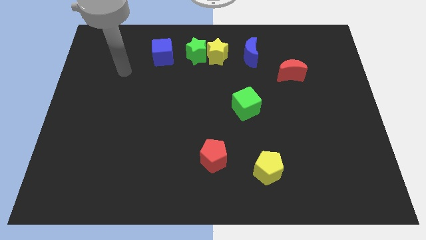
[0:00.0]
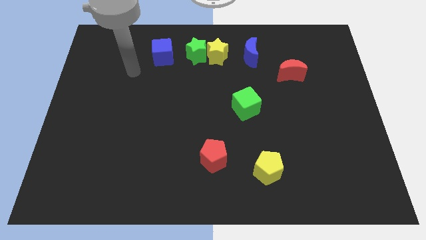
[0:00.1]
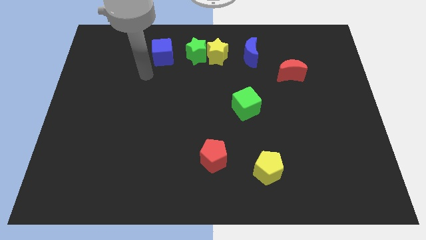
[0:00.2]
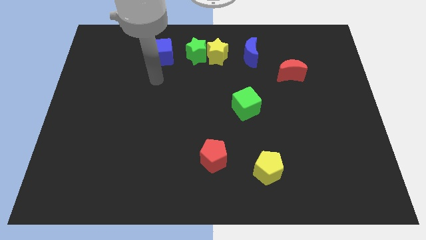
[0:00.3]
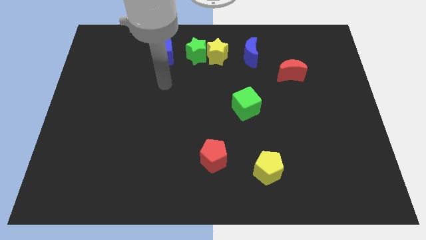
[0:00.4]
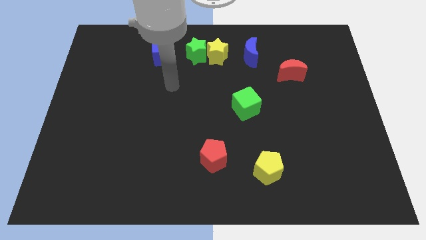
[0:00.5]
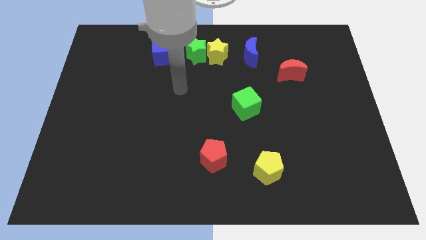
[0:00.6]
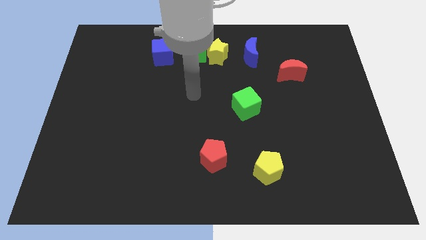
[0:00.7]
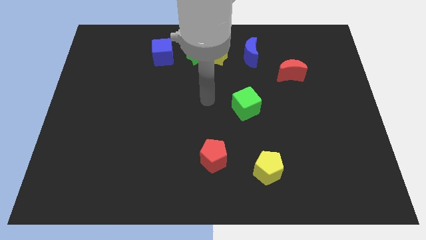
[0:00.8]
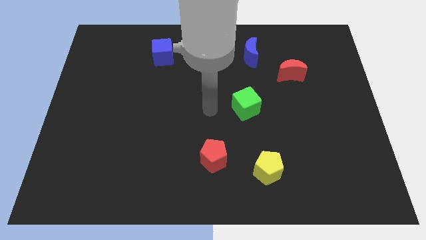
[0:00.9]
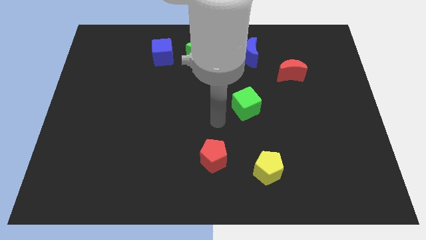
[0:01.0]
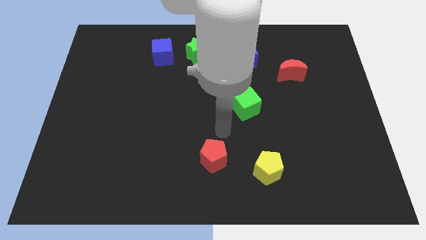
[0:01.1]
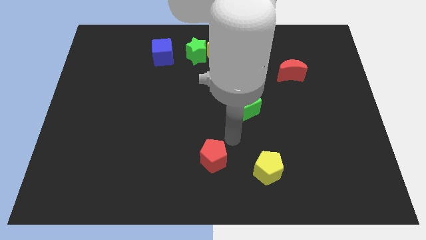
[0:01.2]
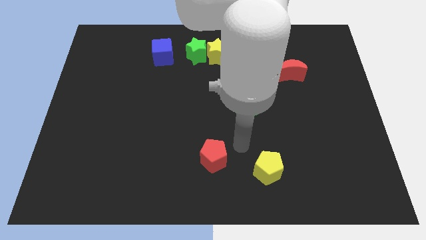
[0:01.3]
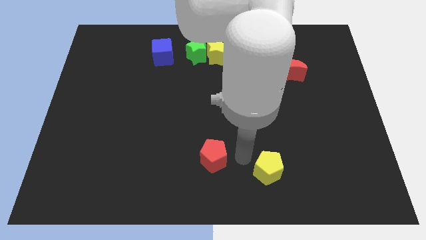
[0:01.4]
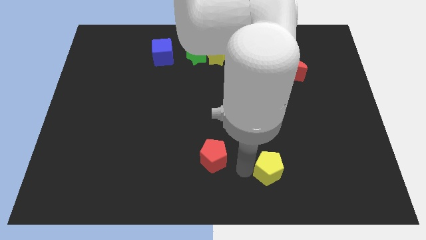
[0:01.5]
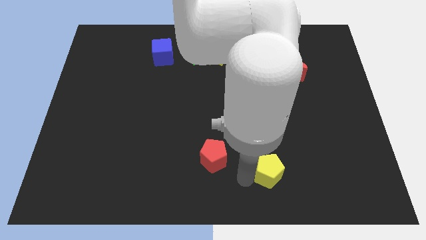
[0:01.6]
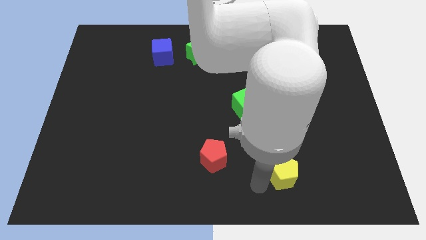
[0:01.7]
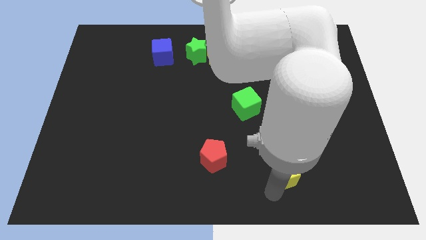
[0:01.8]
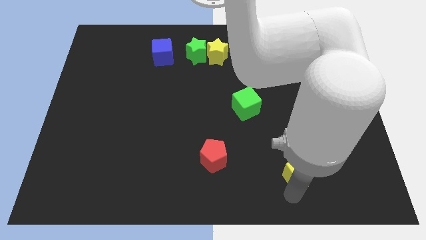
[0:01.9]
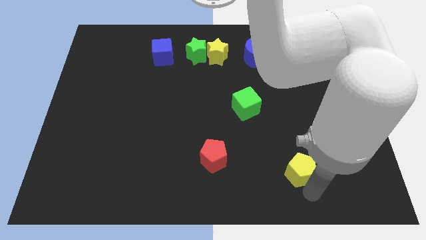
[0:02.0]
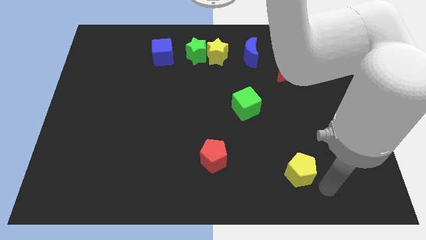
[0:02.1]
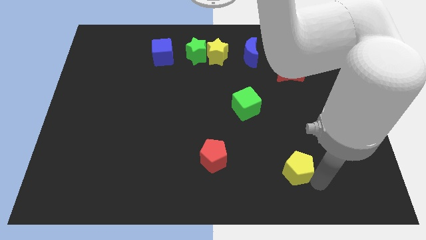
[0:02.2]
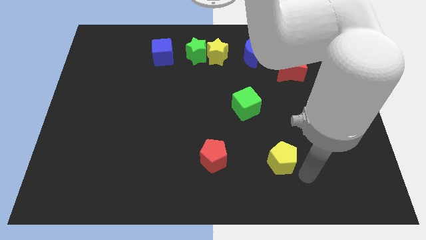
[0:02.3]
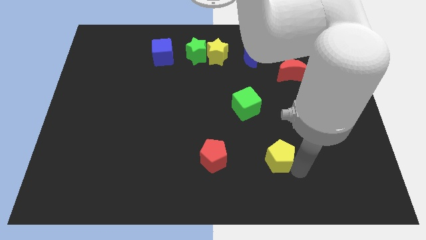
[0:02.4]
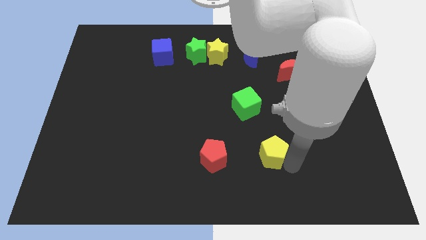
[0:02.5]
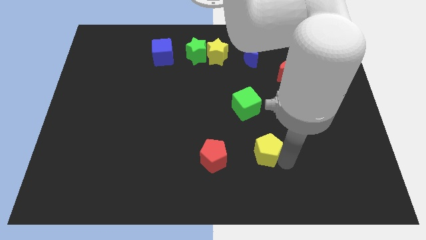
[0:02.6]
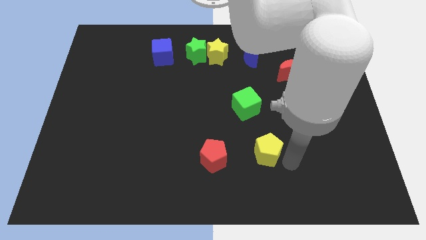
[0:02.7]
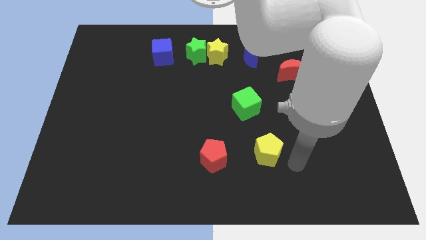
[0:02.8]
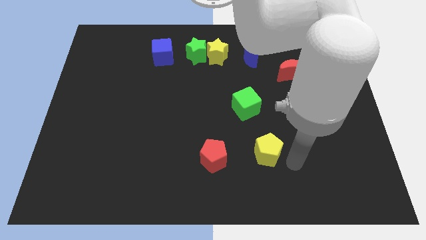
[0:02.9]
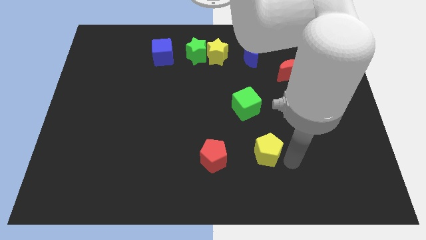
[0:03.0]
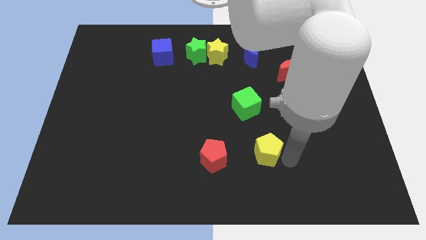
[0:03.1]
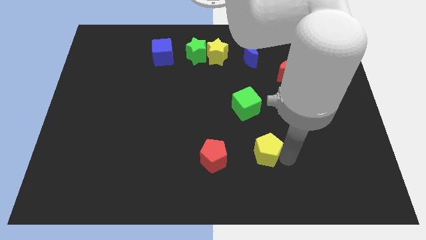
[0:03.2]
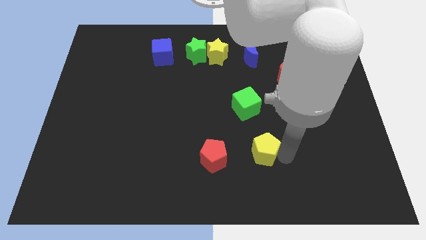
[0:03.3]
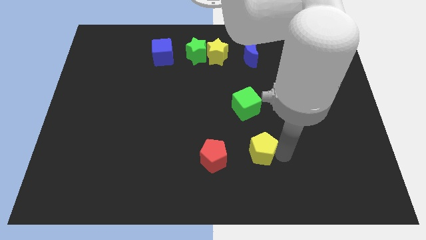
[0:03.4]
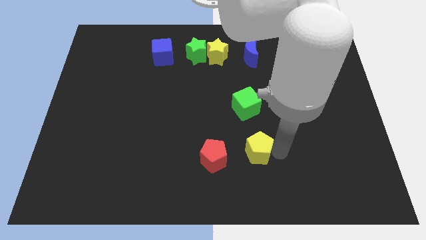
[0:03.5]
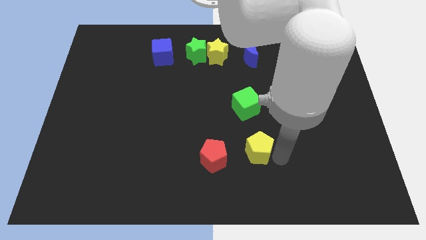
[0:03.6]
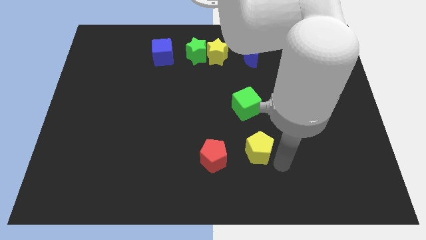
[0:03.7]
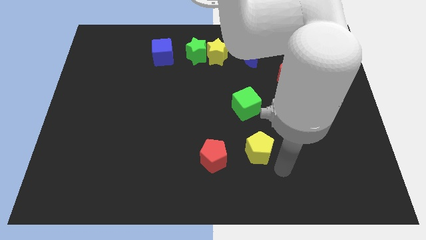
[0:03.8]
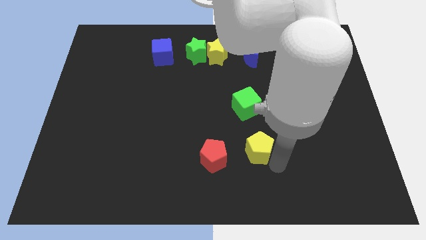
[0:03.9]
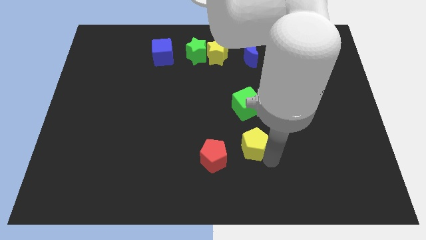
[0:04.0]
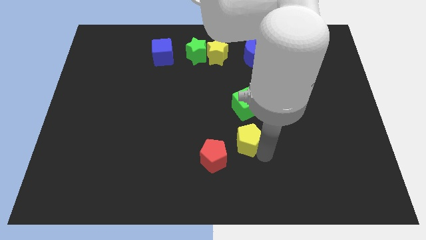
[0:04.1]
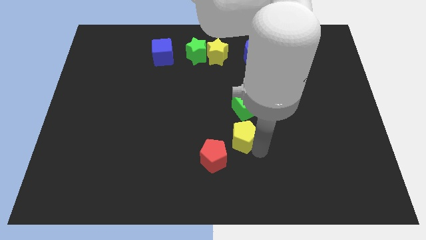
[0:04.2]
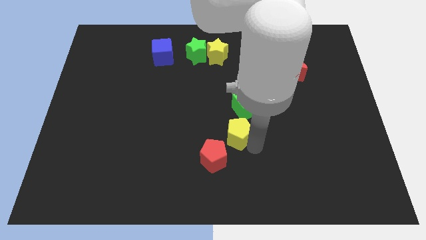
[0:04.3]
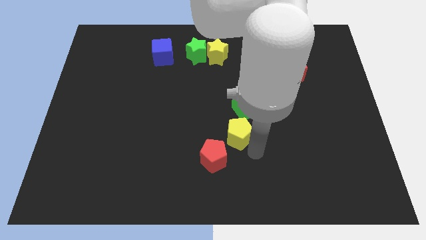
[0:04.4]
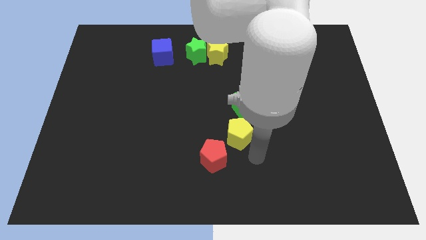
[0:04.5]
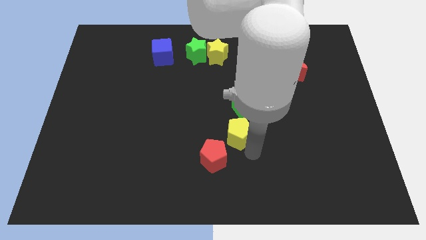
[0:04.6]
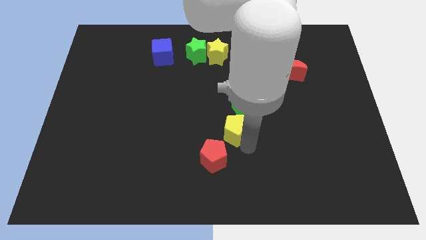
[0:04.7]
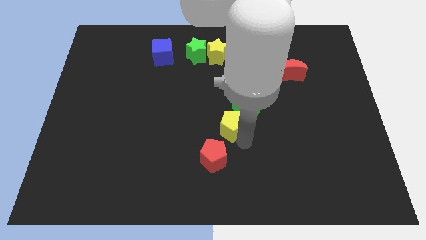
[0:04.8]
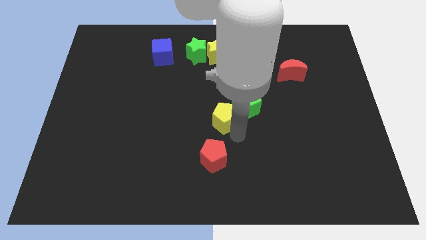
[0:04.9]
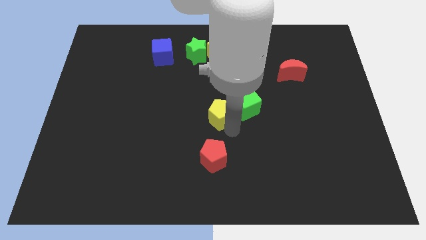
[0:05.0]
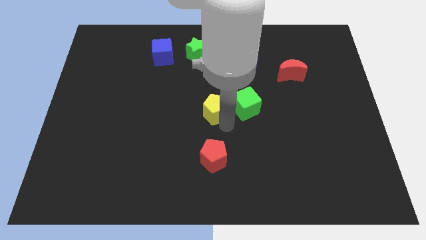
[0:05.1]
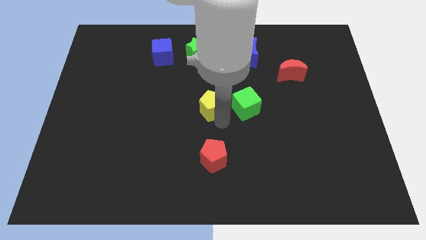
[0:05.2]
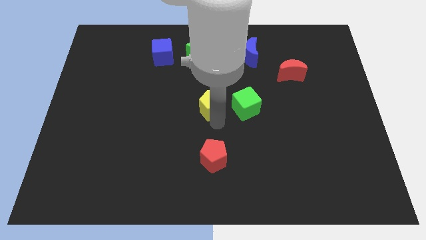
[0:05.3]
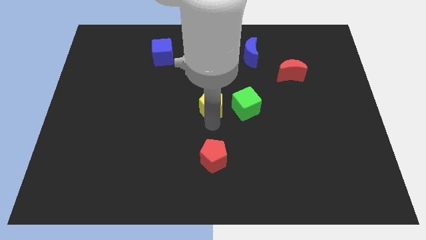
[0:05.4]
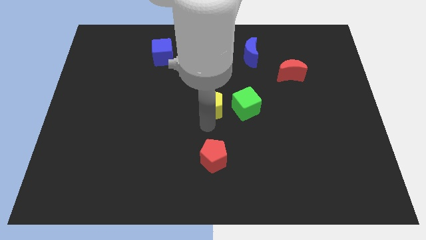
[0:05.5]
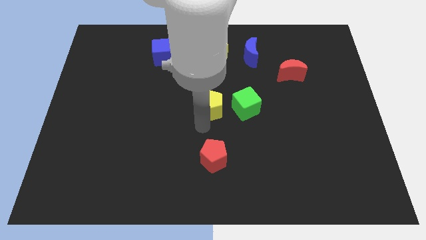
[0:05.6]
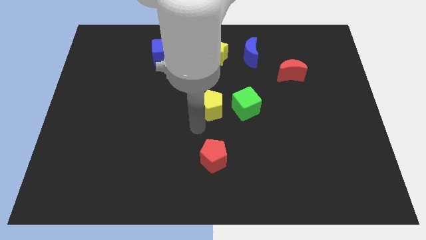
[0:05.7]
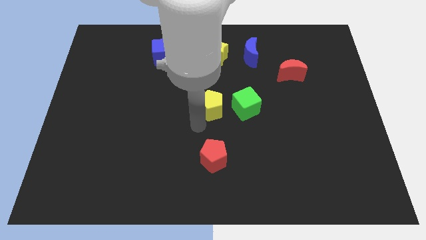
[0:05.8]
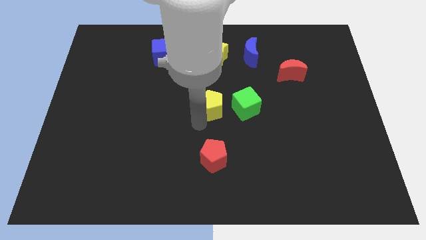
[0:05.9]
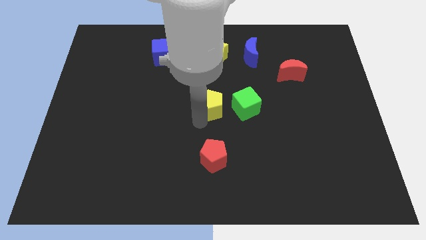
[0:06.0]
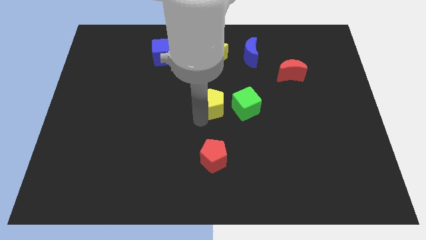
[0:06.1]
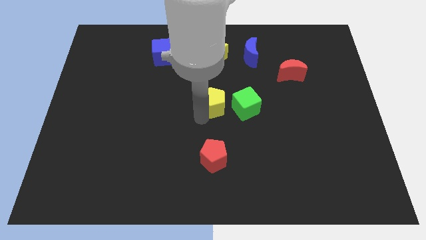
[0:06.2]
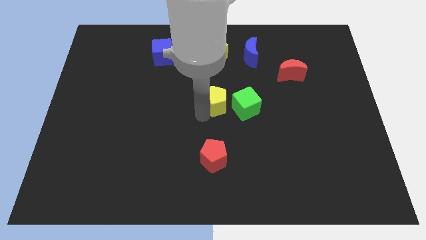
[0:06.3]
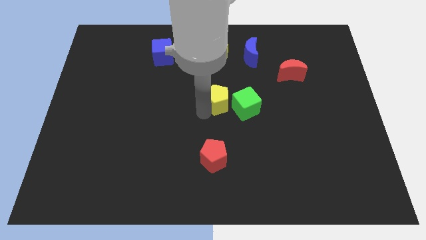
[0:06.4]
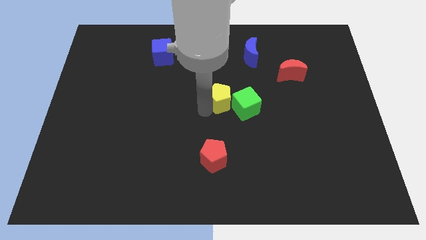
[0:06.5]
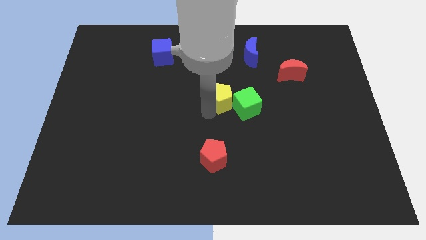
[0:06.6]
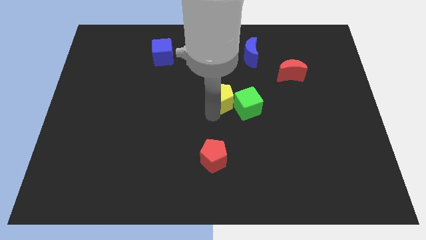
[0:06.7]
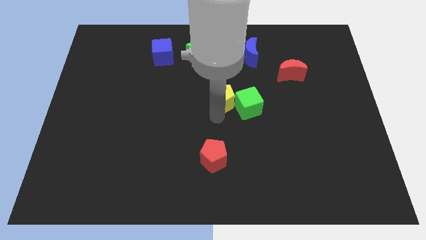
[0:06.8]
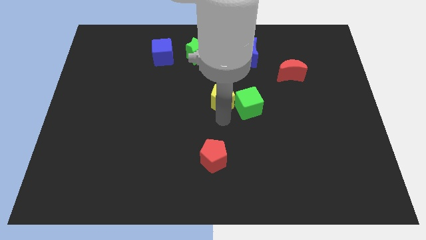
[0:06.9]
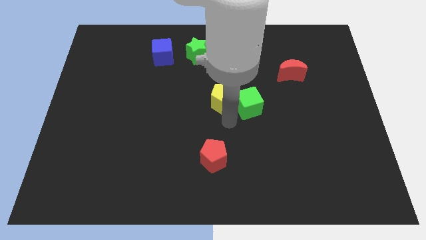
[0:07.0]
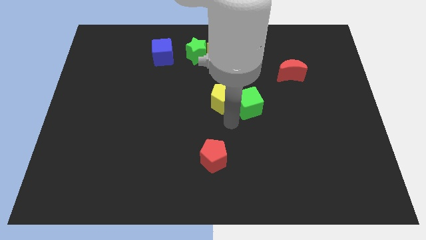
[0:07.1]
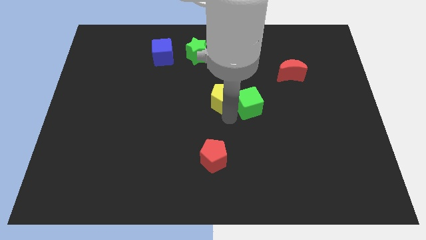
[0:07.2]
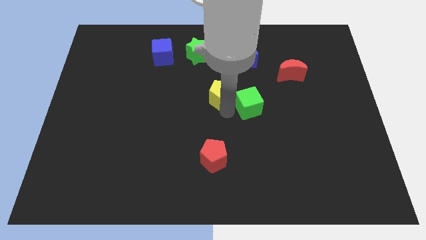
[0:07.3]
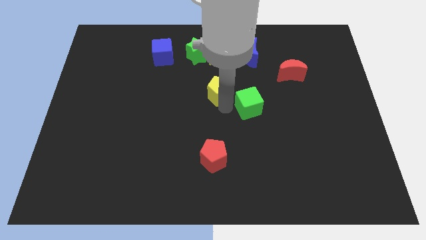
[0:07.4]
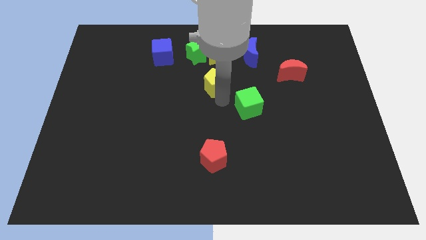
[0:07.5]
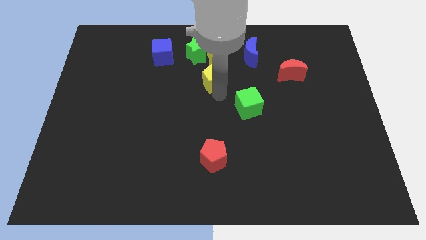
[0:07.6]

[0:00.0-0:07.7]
move the yellow pentagon diagonally down and to the right of the green star

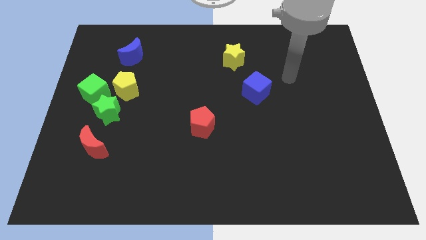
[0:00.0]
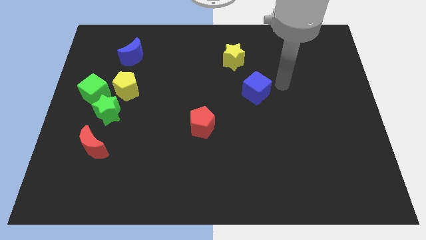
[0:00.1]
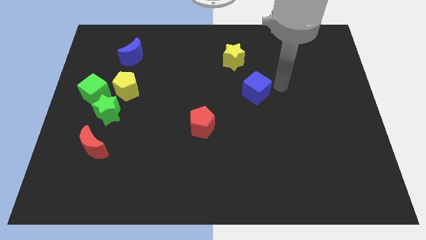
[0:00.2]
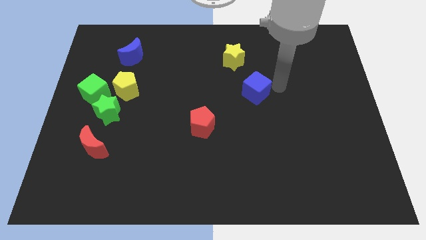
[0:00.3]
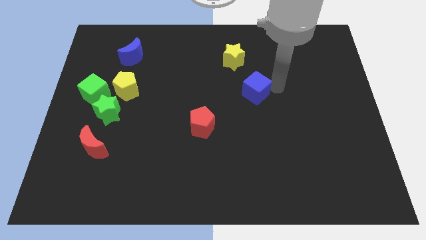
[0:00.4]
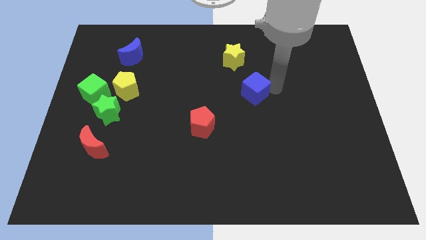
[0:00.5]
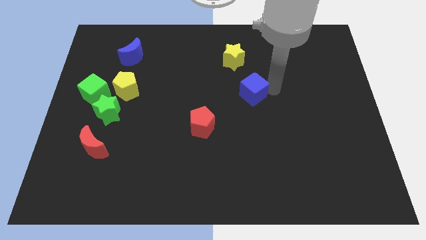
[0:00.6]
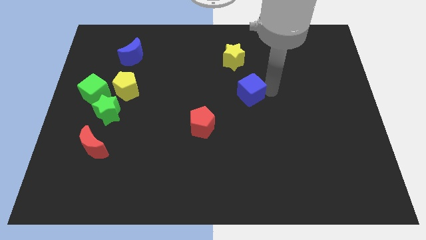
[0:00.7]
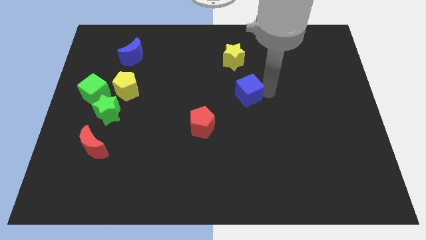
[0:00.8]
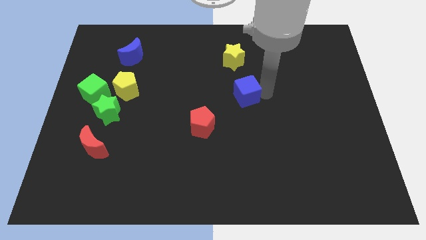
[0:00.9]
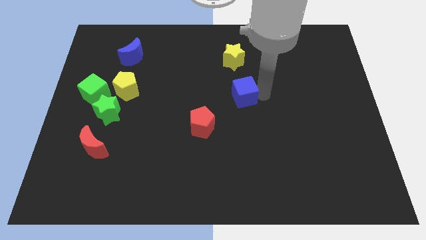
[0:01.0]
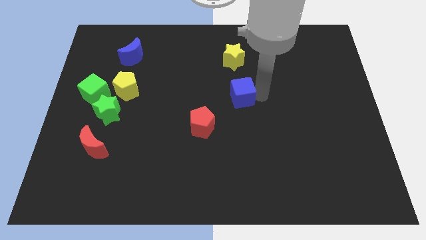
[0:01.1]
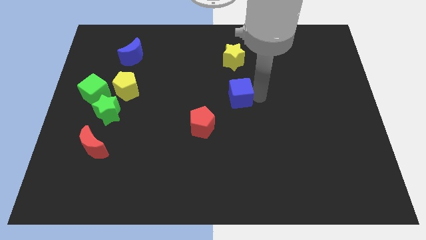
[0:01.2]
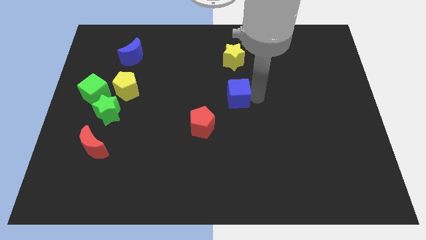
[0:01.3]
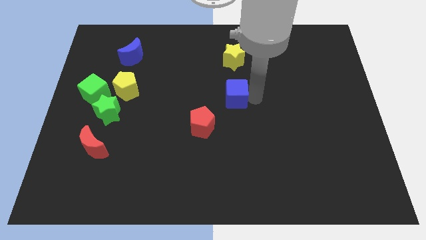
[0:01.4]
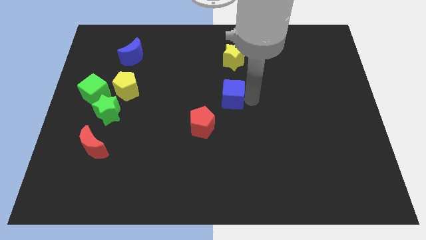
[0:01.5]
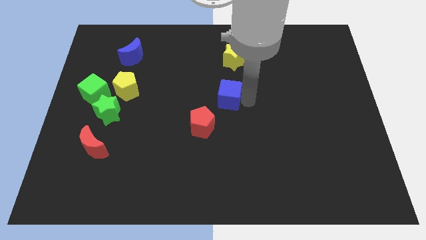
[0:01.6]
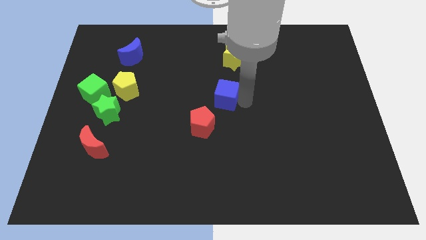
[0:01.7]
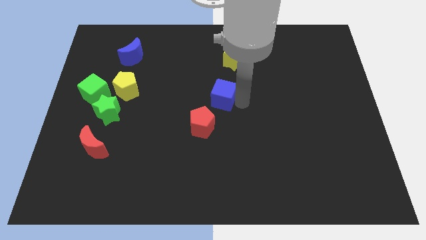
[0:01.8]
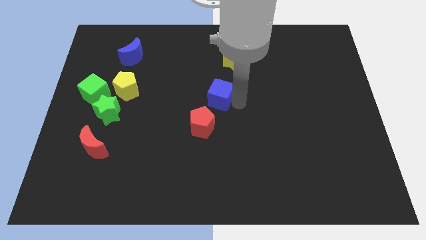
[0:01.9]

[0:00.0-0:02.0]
push the blue cube to the top of the red pentagon
